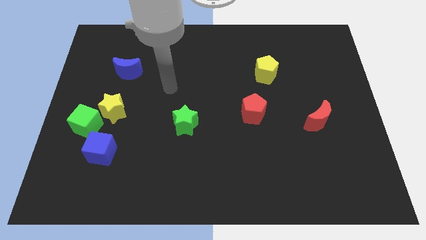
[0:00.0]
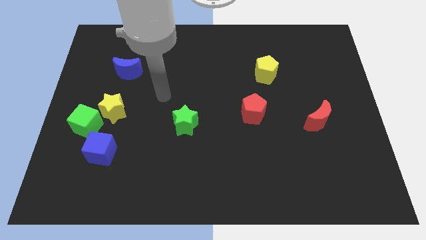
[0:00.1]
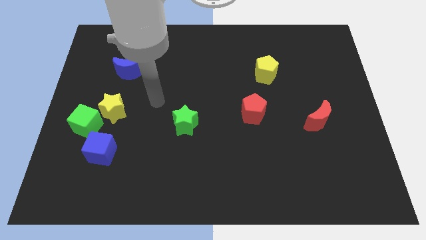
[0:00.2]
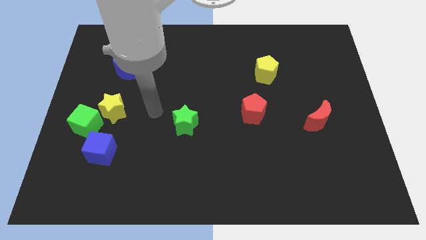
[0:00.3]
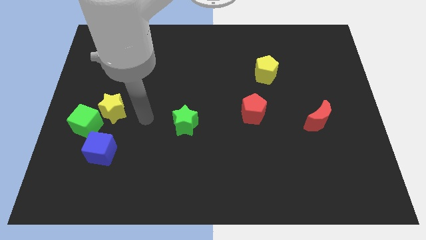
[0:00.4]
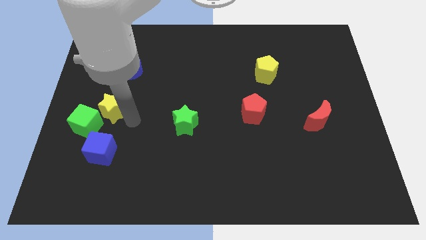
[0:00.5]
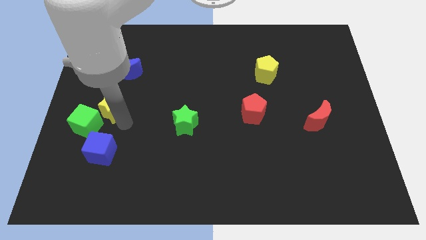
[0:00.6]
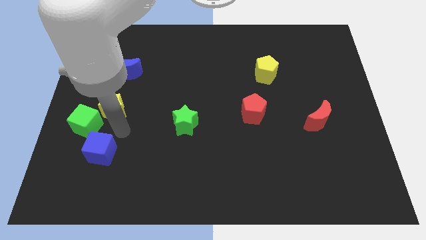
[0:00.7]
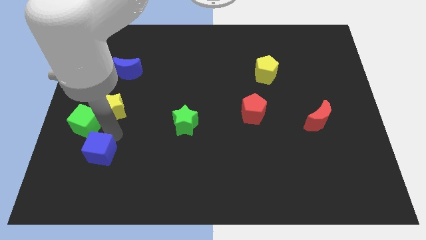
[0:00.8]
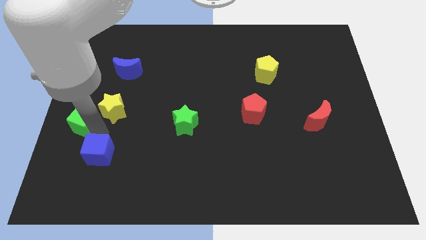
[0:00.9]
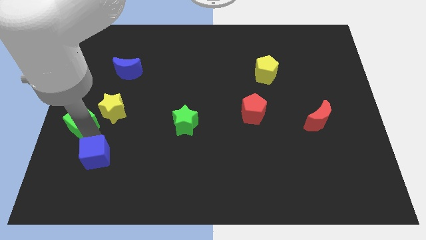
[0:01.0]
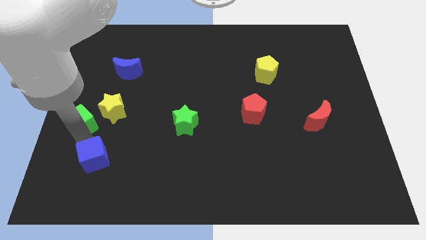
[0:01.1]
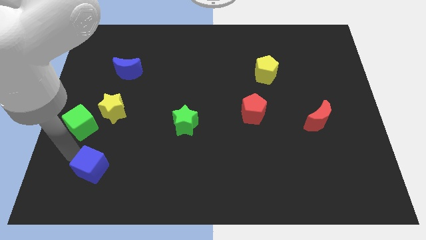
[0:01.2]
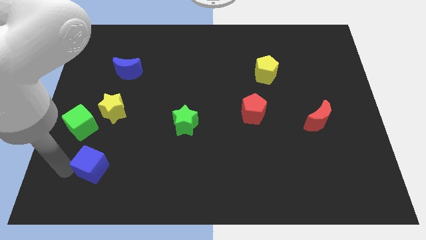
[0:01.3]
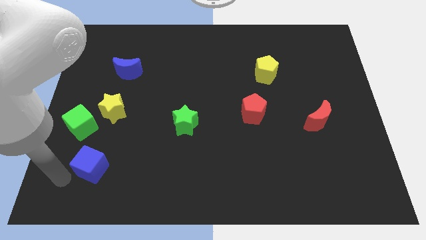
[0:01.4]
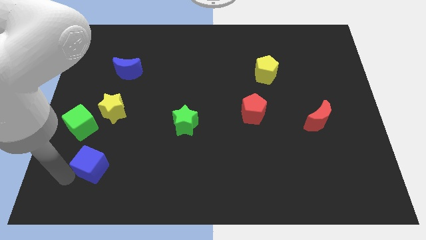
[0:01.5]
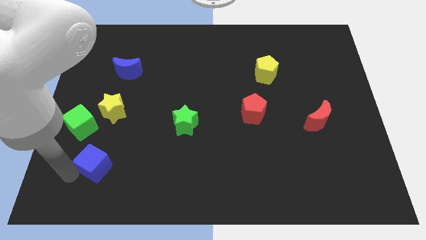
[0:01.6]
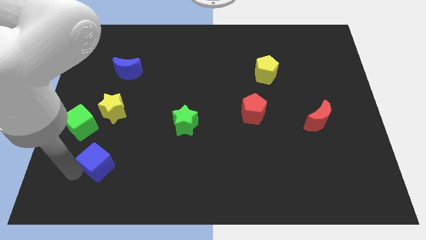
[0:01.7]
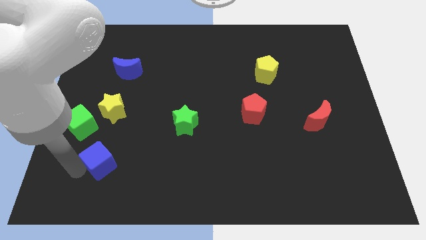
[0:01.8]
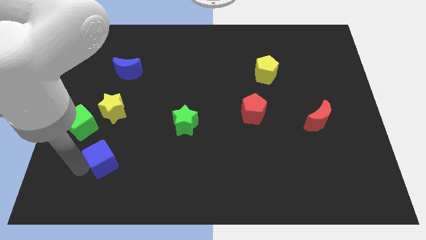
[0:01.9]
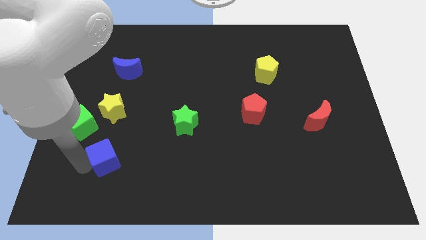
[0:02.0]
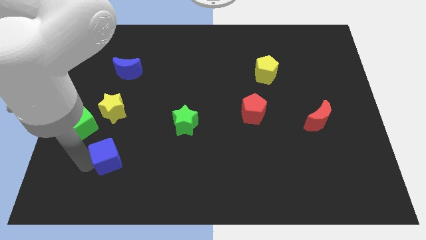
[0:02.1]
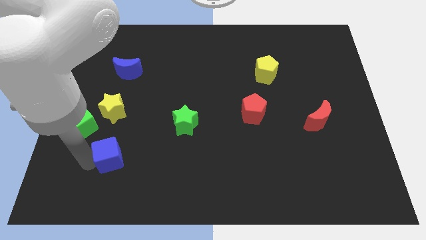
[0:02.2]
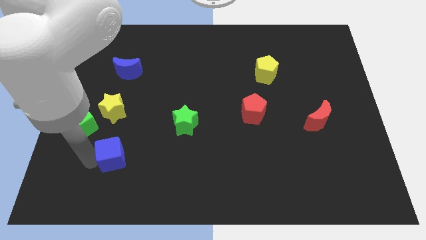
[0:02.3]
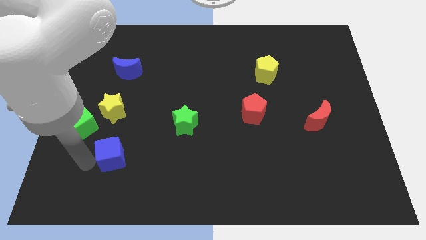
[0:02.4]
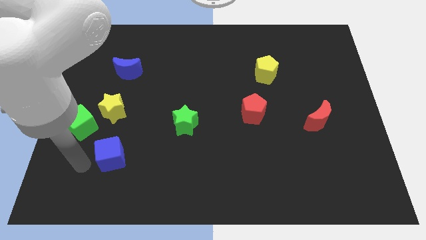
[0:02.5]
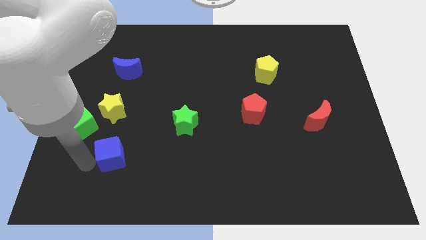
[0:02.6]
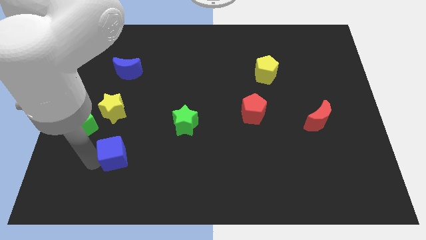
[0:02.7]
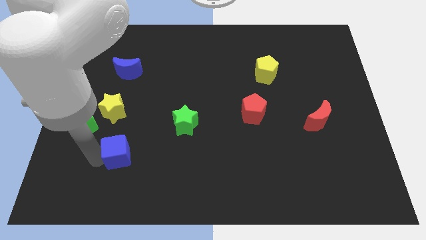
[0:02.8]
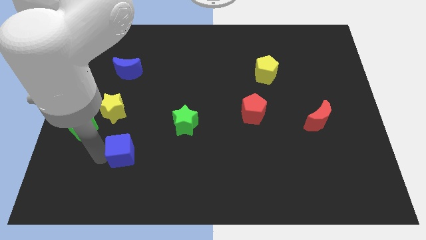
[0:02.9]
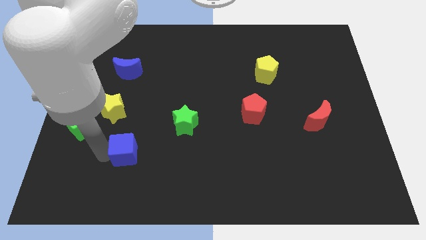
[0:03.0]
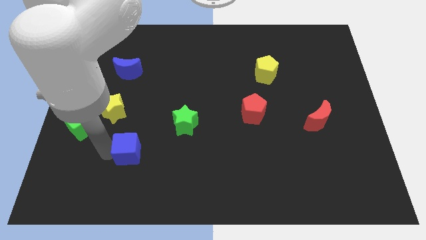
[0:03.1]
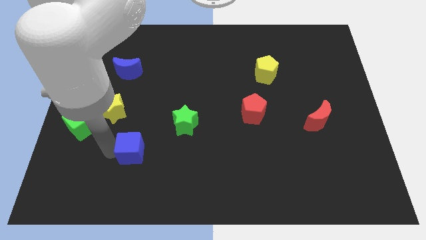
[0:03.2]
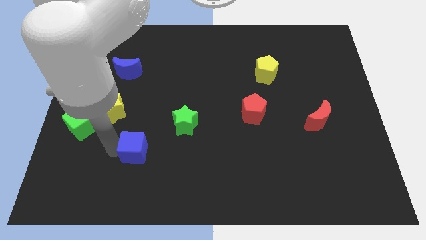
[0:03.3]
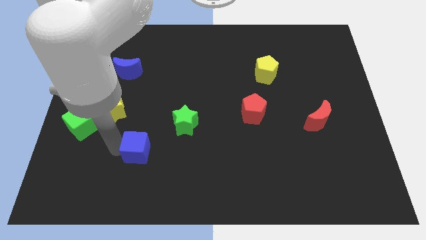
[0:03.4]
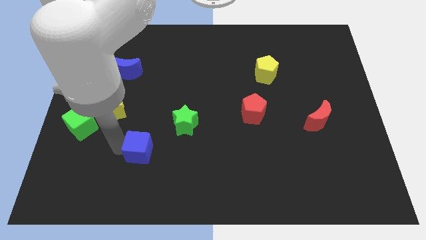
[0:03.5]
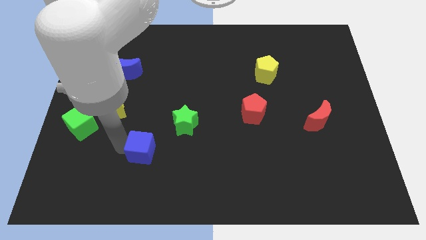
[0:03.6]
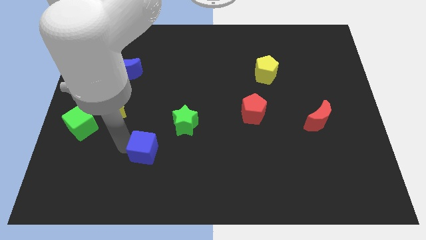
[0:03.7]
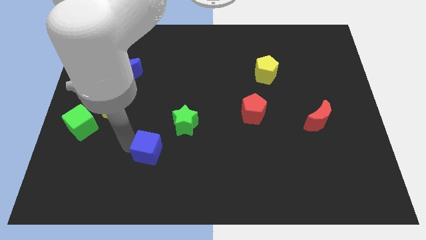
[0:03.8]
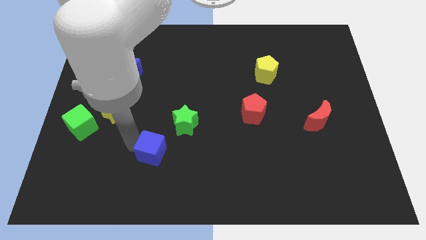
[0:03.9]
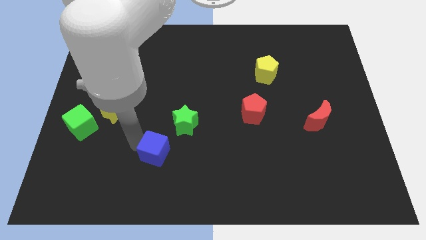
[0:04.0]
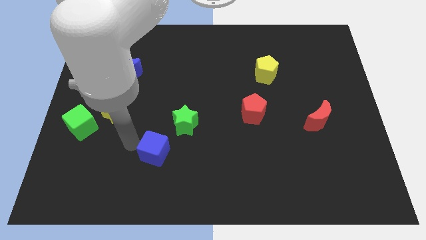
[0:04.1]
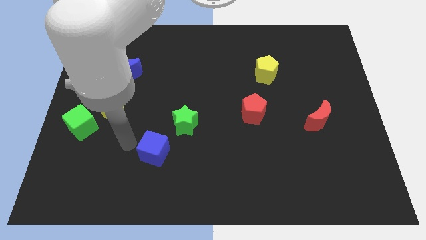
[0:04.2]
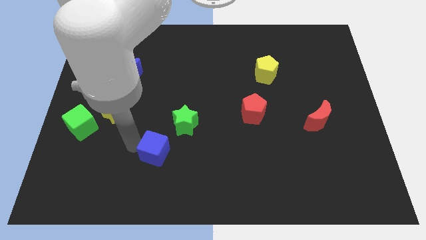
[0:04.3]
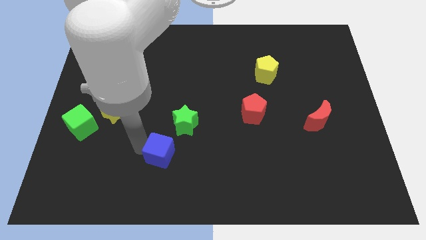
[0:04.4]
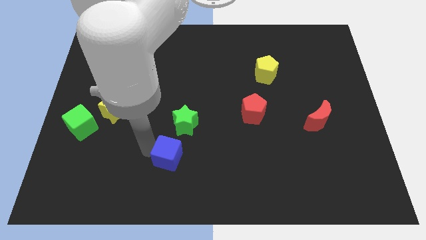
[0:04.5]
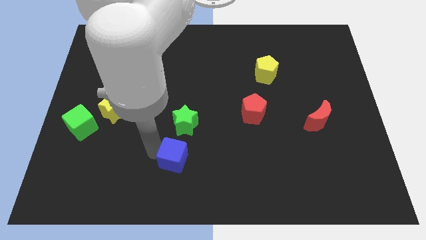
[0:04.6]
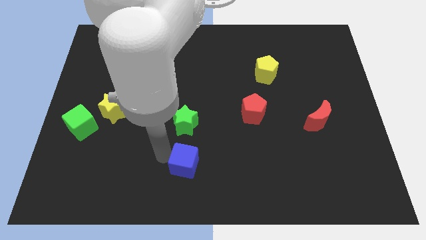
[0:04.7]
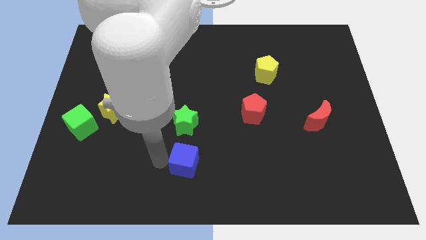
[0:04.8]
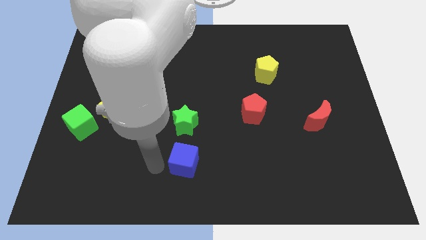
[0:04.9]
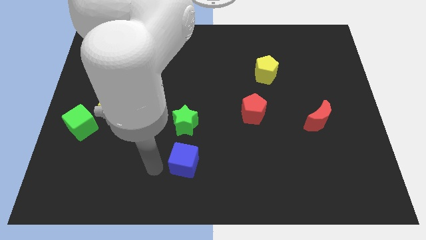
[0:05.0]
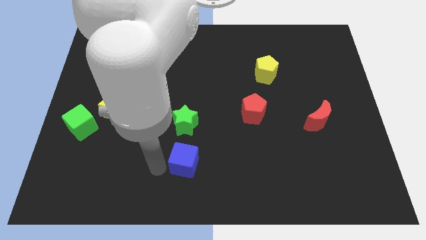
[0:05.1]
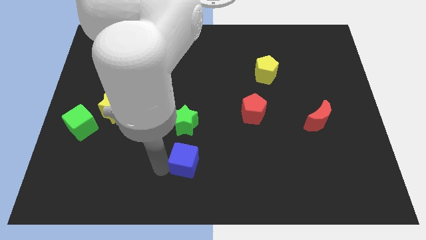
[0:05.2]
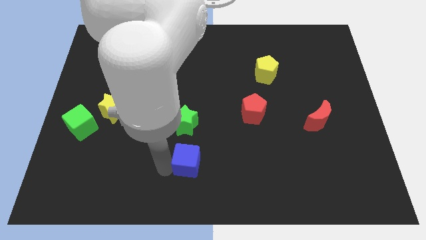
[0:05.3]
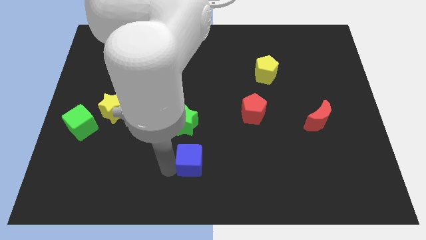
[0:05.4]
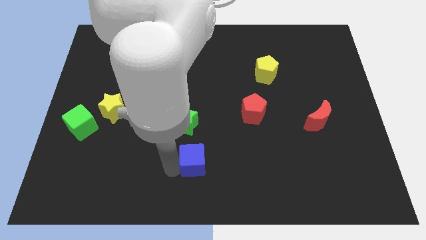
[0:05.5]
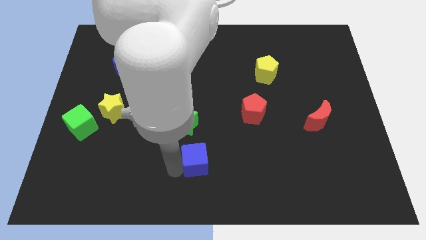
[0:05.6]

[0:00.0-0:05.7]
push the blue cube to the right

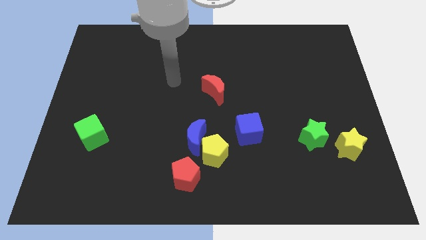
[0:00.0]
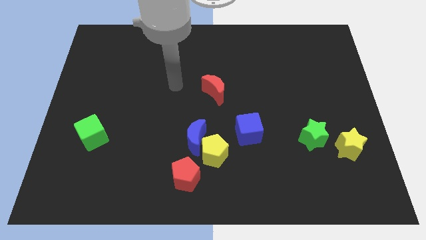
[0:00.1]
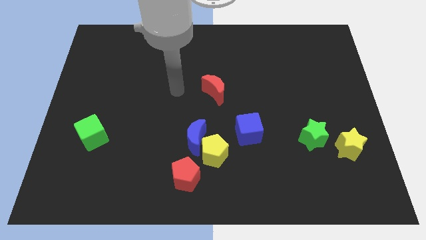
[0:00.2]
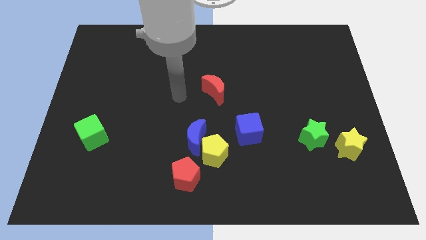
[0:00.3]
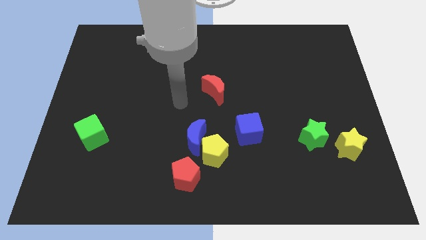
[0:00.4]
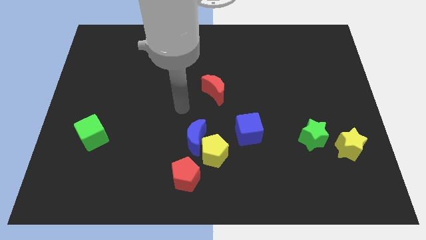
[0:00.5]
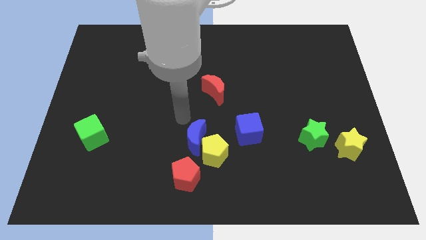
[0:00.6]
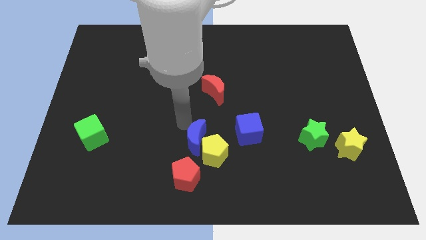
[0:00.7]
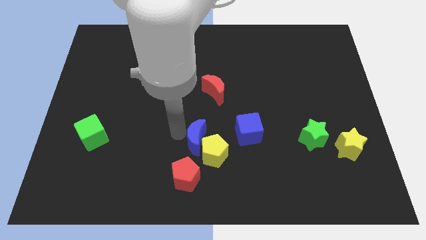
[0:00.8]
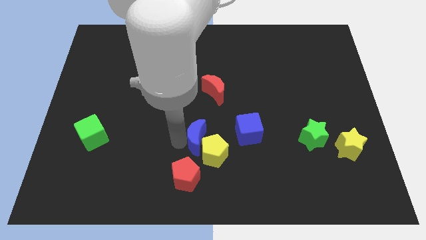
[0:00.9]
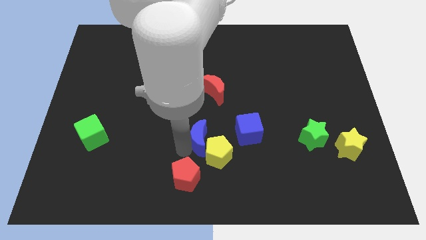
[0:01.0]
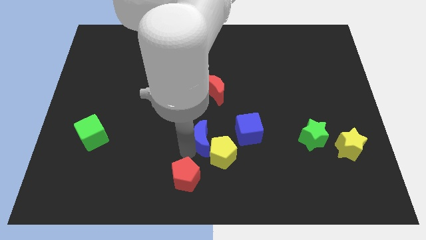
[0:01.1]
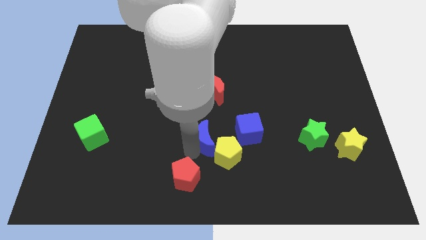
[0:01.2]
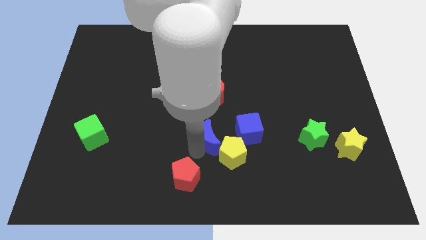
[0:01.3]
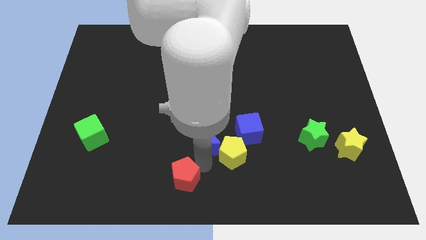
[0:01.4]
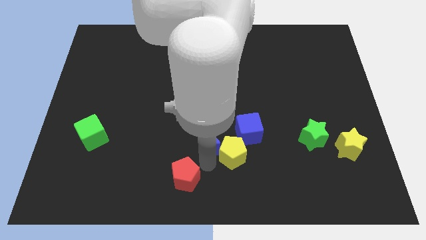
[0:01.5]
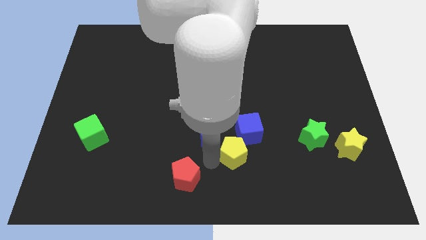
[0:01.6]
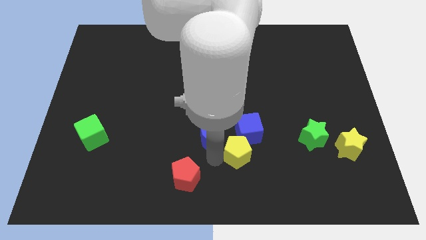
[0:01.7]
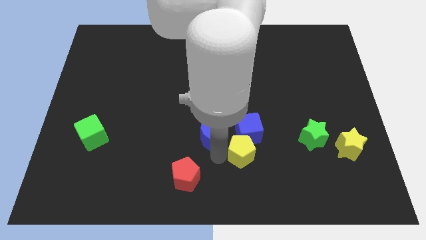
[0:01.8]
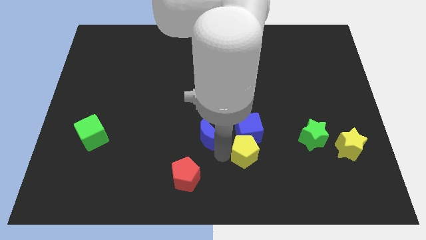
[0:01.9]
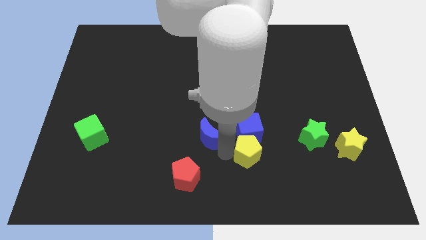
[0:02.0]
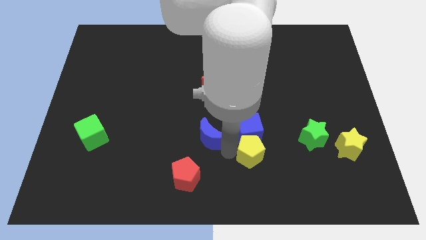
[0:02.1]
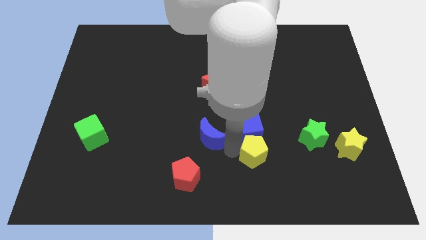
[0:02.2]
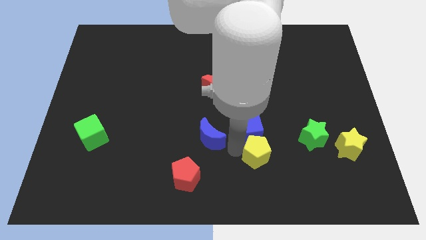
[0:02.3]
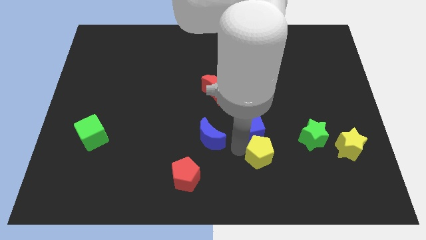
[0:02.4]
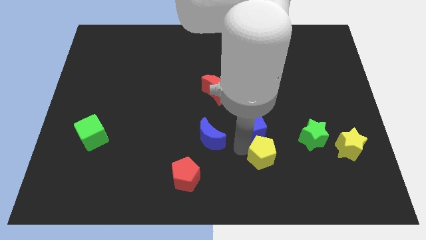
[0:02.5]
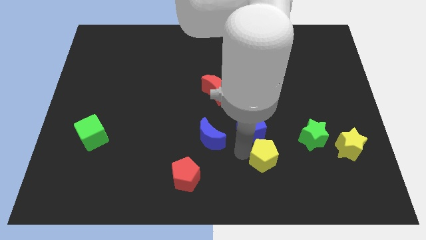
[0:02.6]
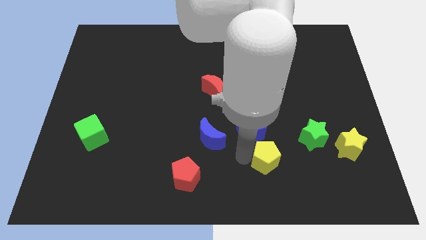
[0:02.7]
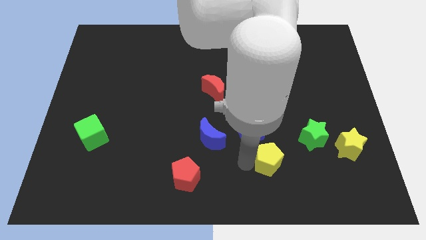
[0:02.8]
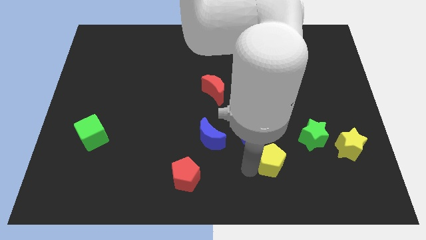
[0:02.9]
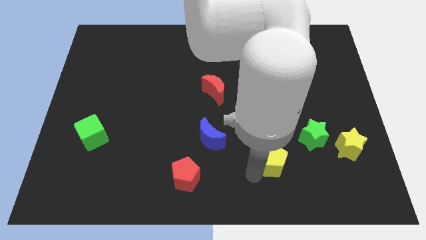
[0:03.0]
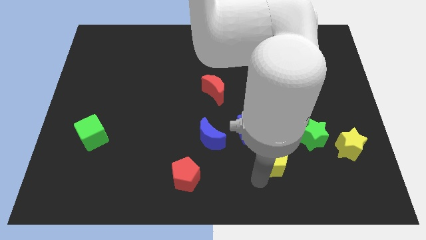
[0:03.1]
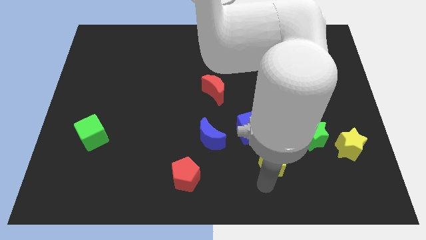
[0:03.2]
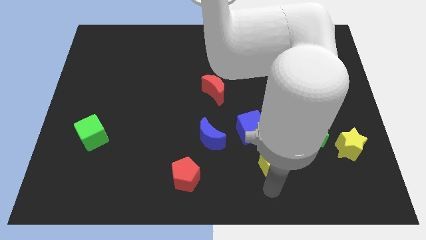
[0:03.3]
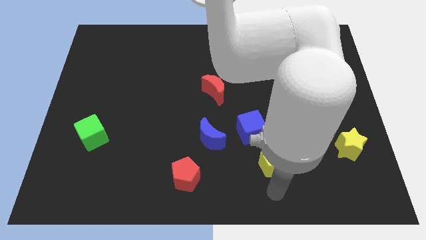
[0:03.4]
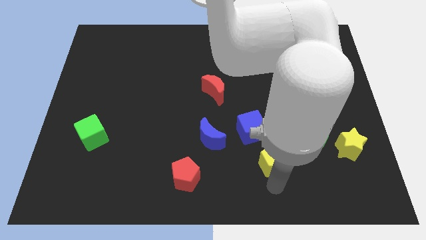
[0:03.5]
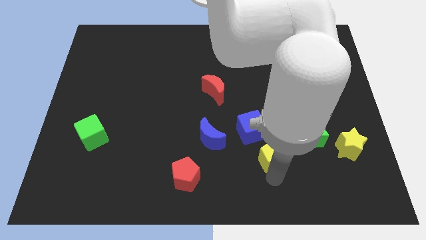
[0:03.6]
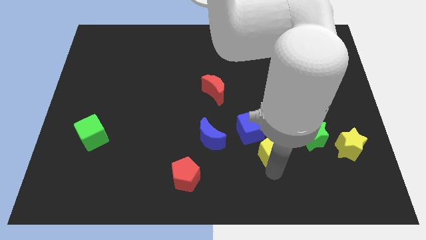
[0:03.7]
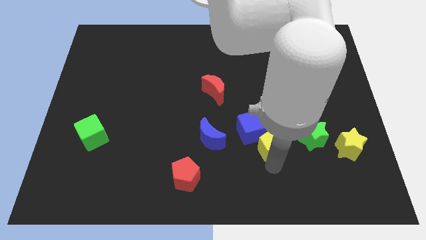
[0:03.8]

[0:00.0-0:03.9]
move the yellow pentagon up and then to the right somewhat
